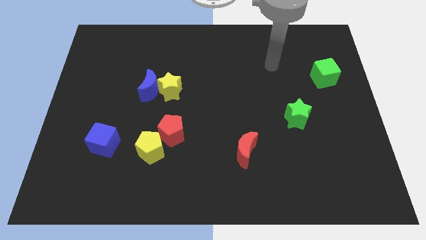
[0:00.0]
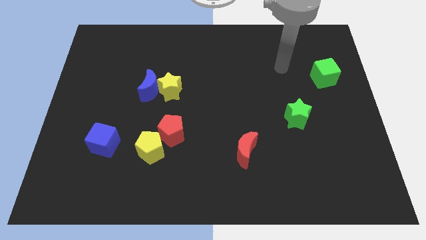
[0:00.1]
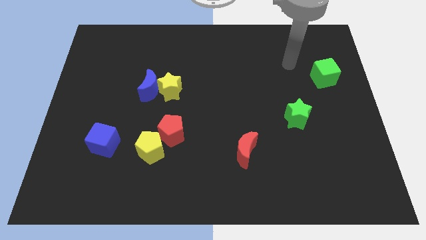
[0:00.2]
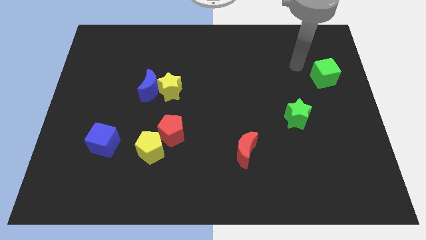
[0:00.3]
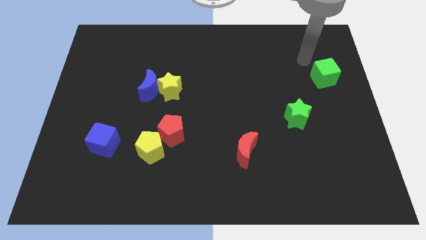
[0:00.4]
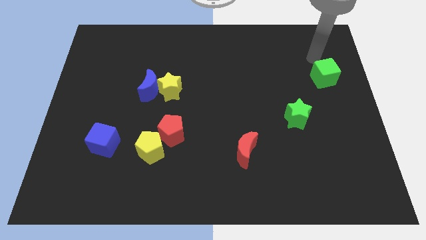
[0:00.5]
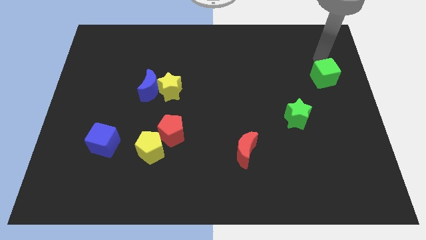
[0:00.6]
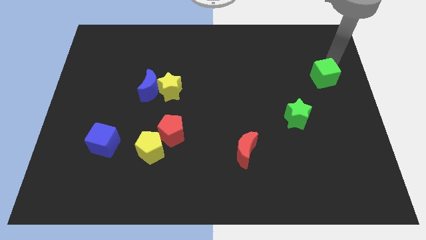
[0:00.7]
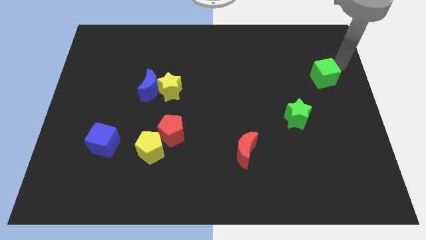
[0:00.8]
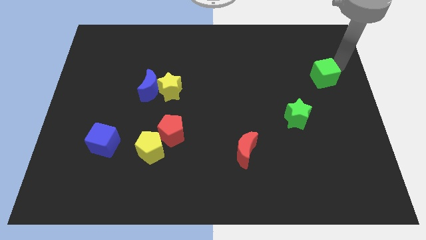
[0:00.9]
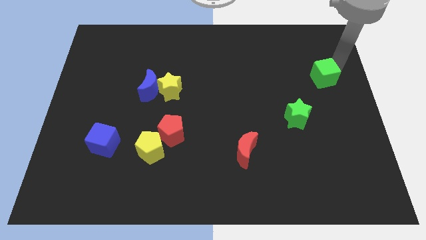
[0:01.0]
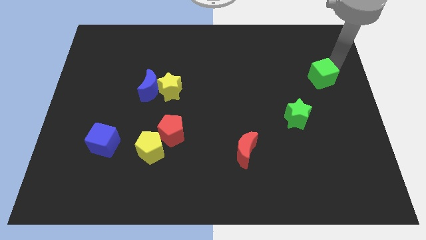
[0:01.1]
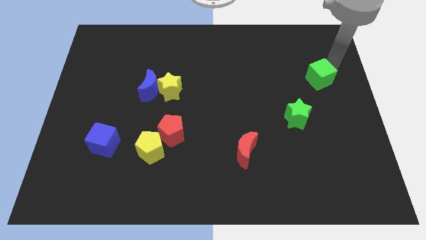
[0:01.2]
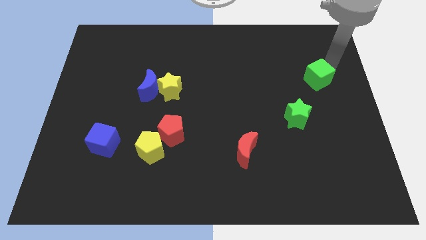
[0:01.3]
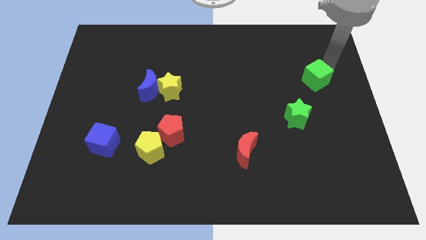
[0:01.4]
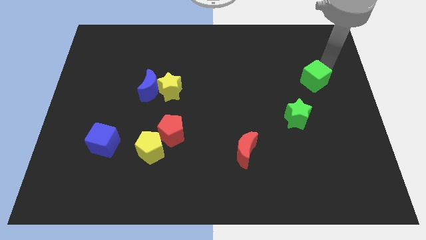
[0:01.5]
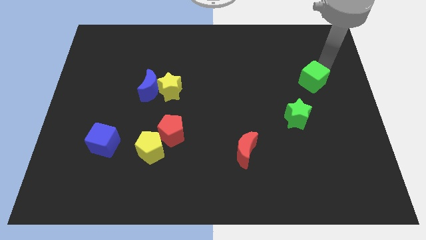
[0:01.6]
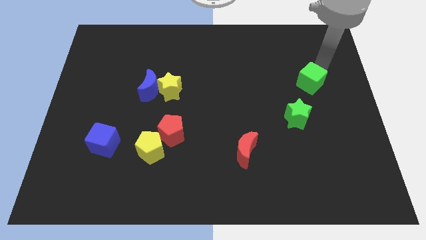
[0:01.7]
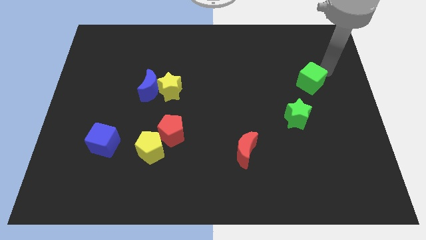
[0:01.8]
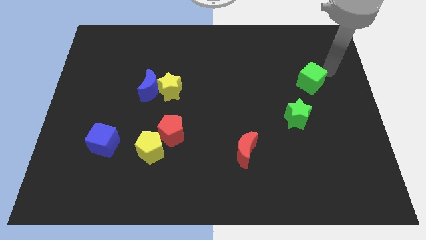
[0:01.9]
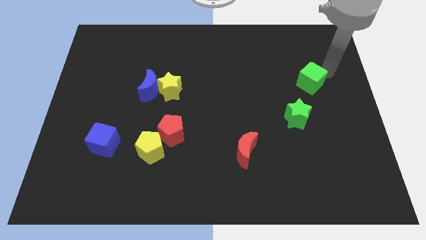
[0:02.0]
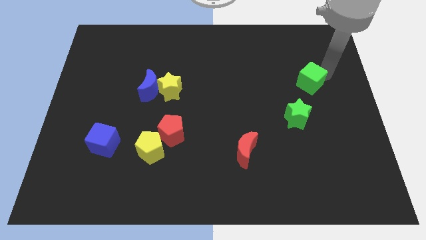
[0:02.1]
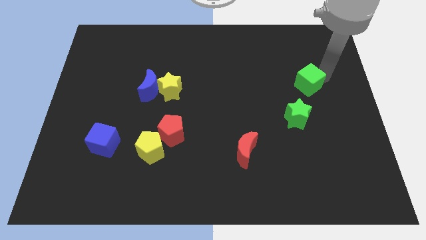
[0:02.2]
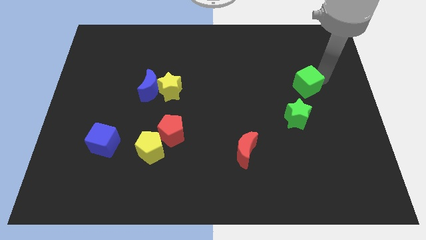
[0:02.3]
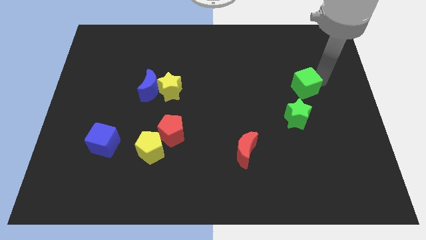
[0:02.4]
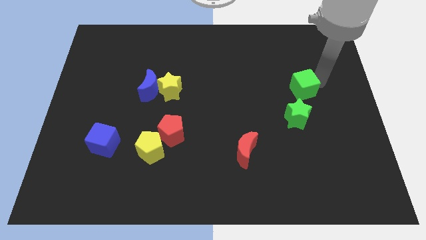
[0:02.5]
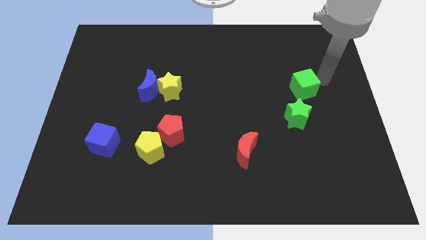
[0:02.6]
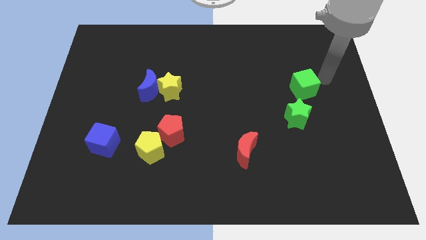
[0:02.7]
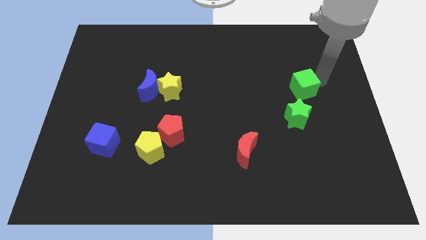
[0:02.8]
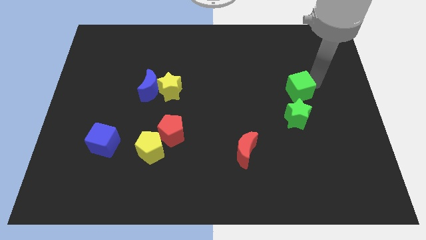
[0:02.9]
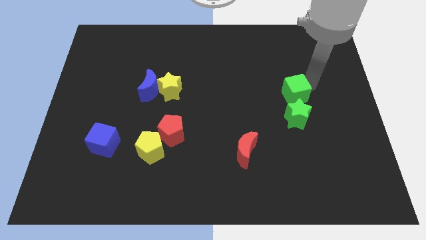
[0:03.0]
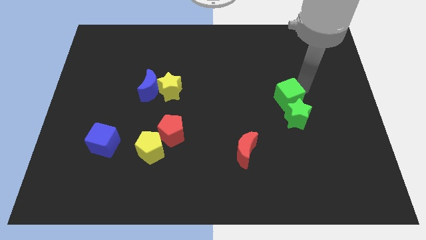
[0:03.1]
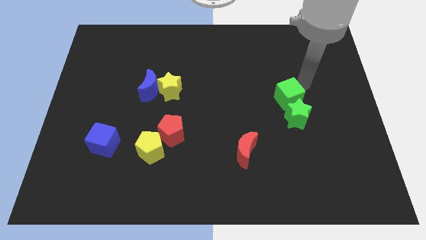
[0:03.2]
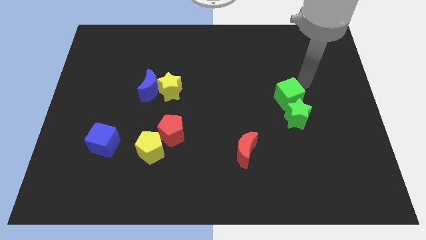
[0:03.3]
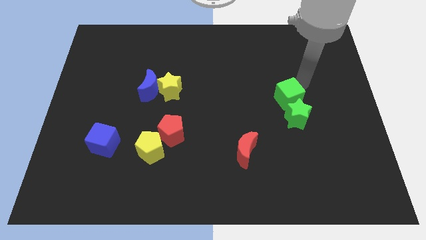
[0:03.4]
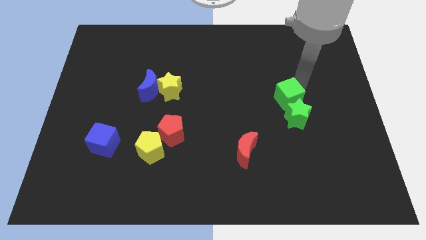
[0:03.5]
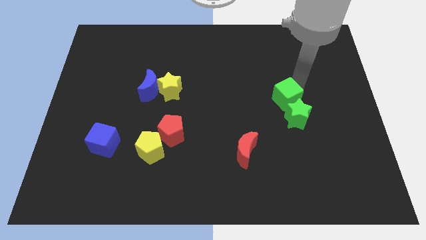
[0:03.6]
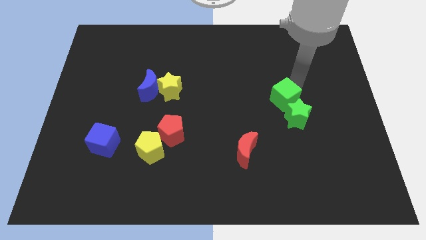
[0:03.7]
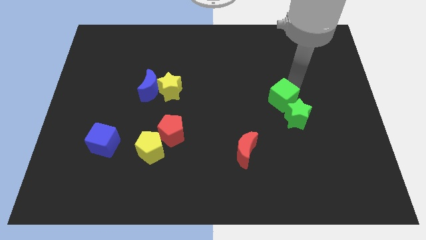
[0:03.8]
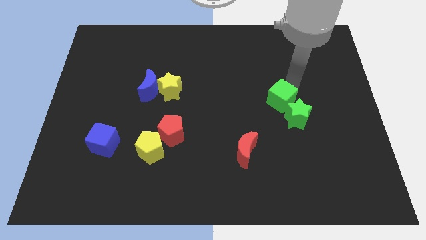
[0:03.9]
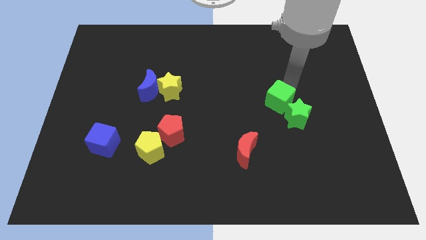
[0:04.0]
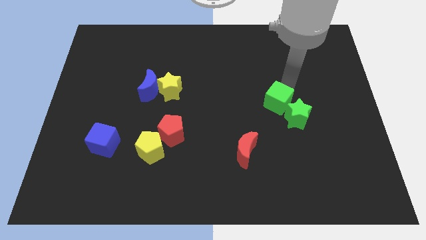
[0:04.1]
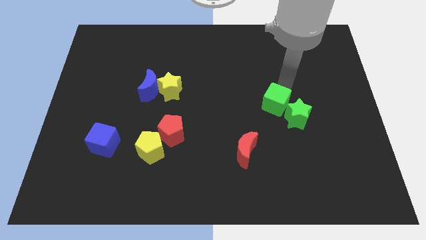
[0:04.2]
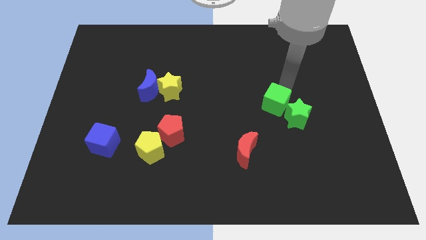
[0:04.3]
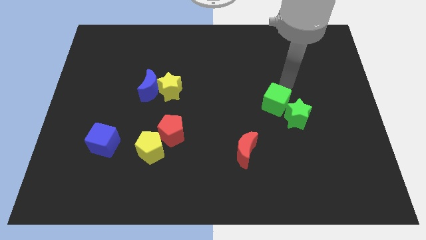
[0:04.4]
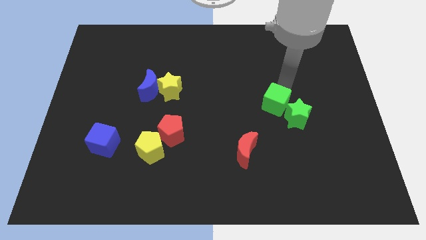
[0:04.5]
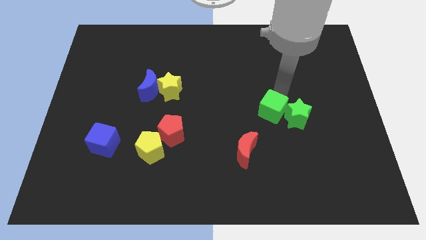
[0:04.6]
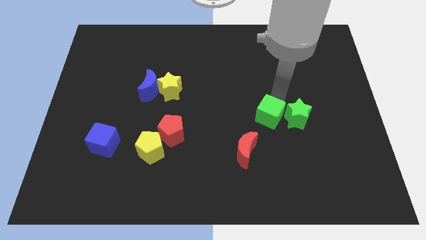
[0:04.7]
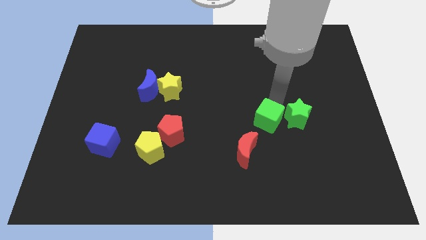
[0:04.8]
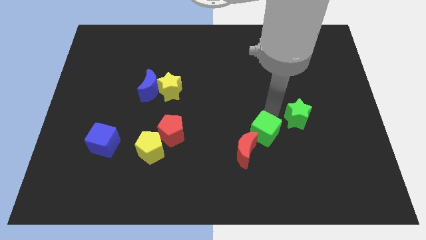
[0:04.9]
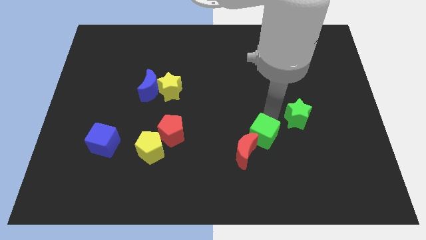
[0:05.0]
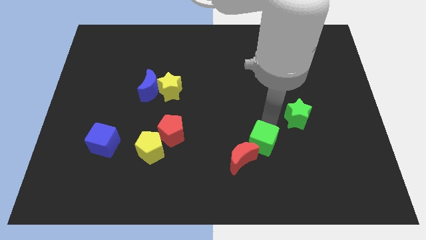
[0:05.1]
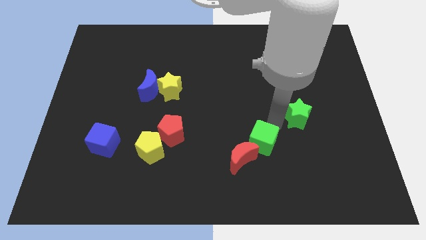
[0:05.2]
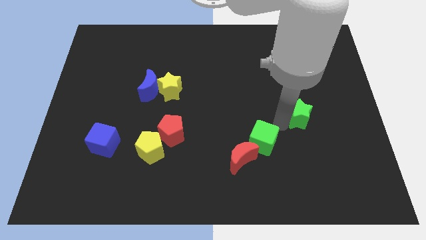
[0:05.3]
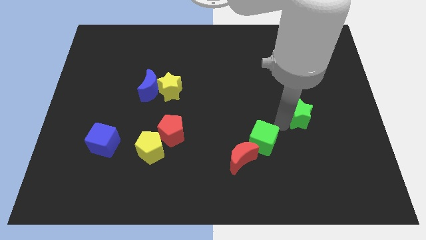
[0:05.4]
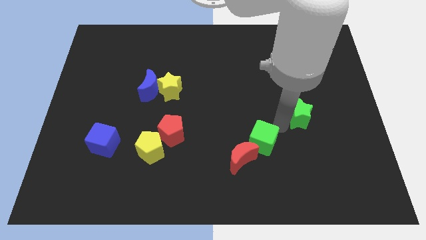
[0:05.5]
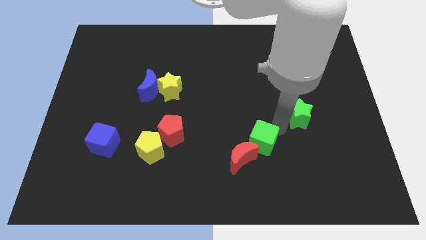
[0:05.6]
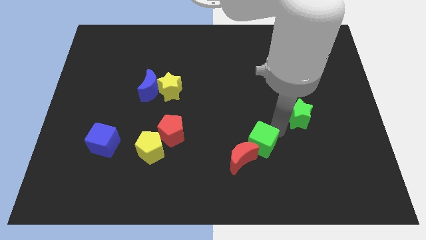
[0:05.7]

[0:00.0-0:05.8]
put the green cube towards the red moon

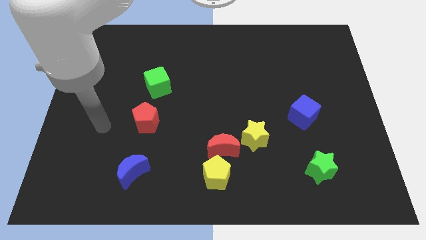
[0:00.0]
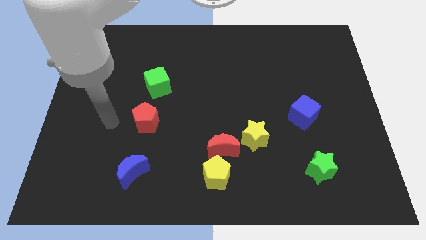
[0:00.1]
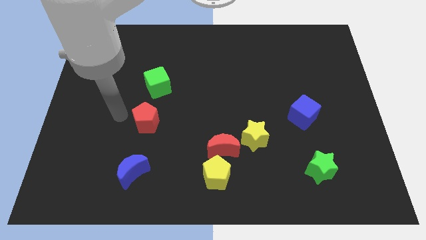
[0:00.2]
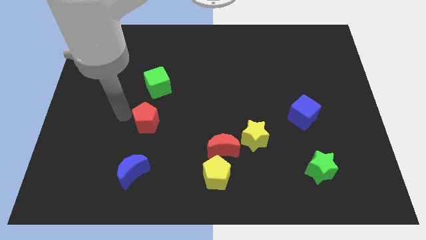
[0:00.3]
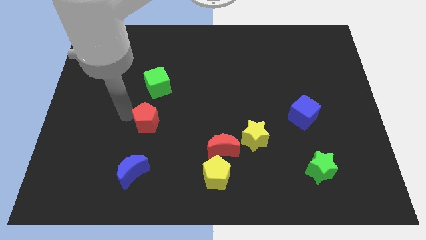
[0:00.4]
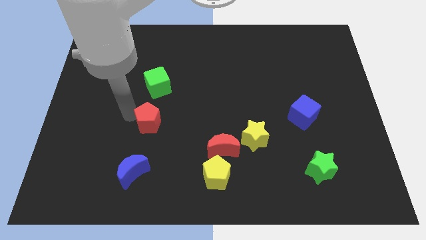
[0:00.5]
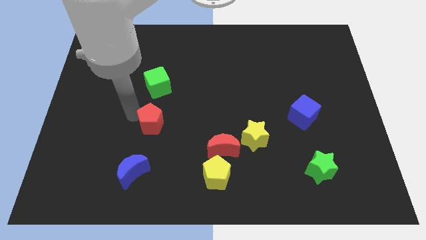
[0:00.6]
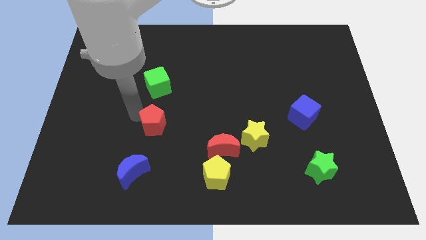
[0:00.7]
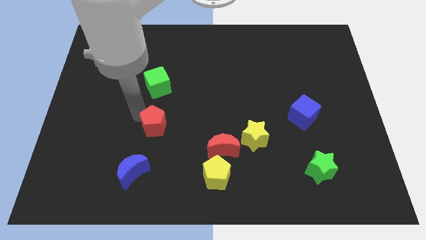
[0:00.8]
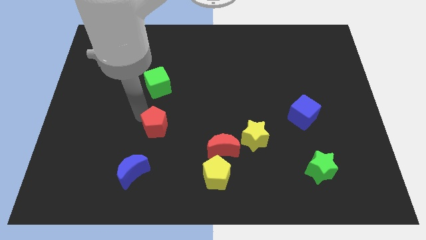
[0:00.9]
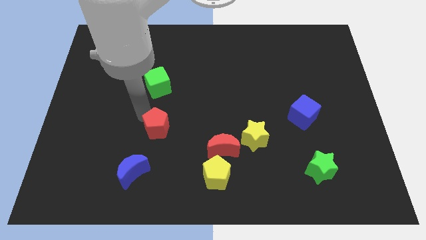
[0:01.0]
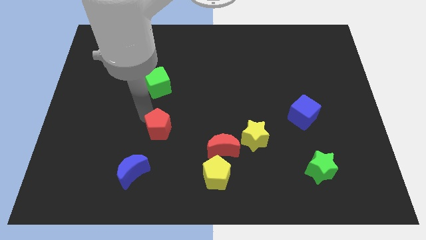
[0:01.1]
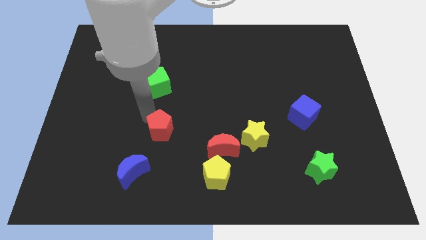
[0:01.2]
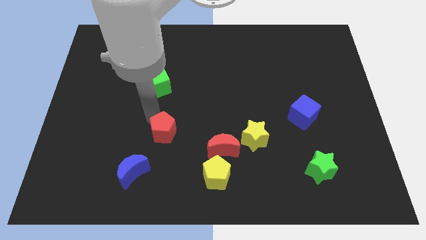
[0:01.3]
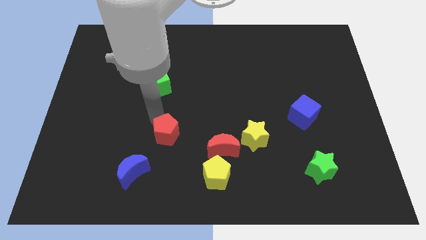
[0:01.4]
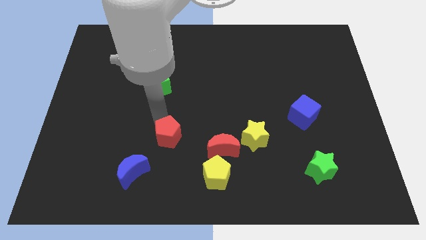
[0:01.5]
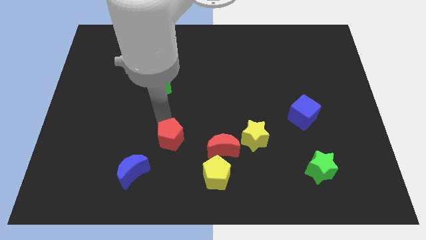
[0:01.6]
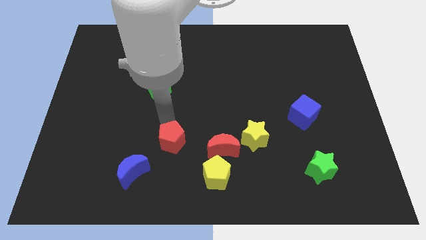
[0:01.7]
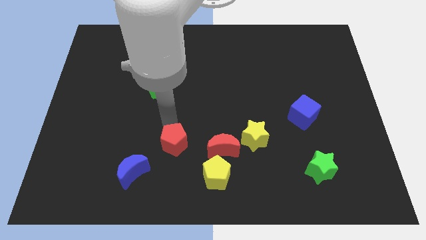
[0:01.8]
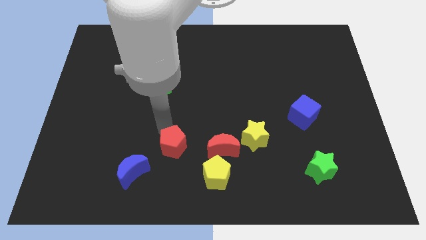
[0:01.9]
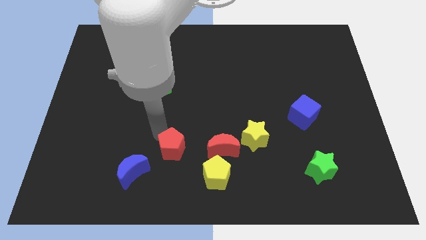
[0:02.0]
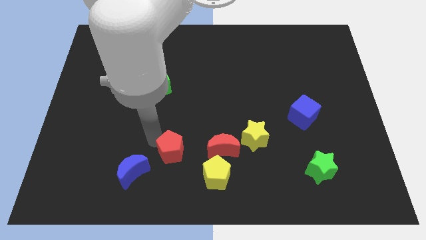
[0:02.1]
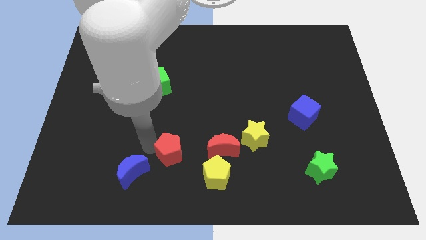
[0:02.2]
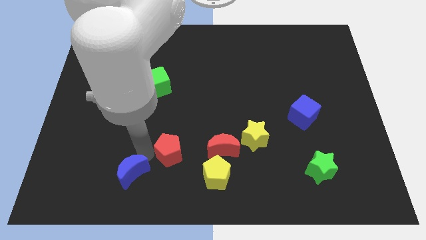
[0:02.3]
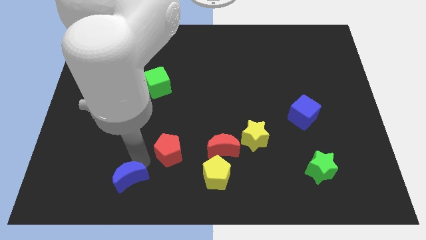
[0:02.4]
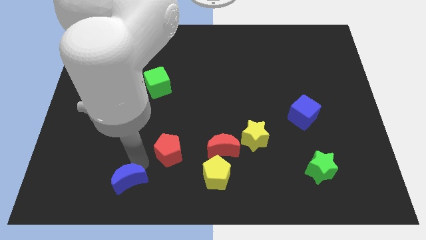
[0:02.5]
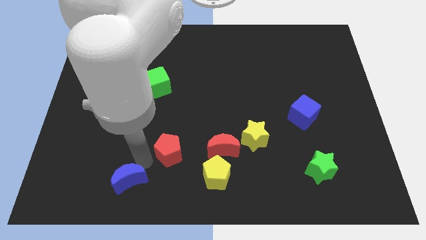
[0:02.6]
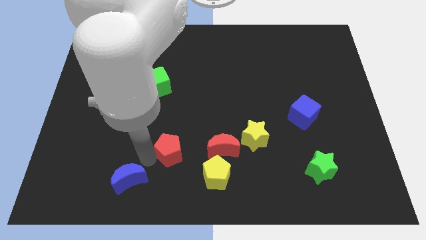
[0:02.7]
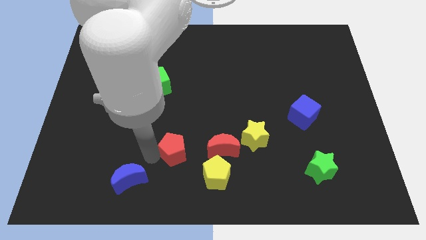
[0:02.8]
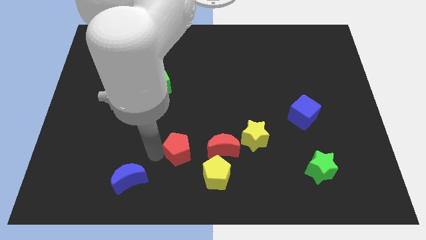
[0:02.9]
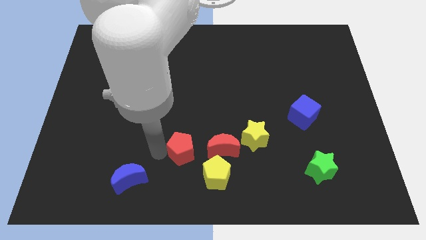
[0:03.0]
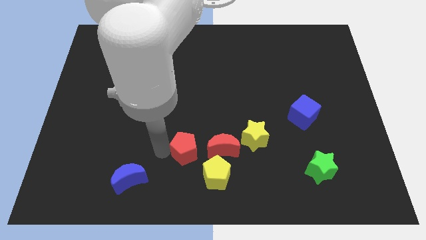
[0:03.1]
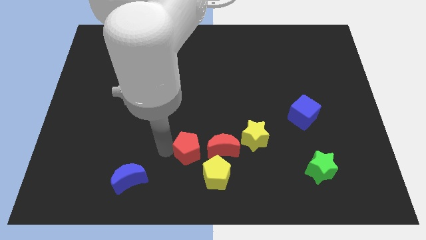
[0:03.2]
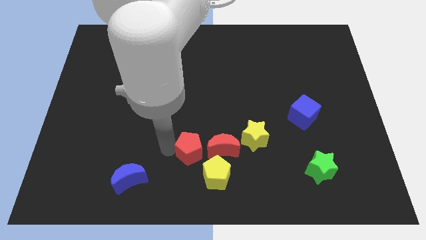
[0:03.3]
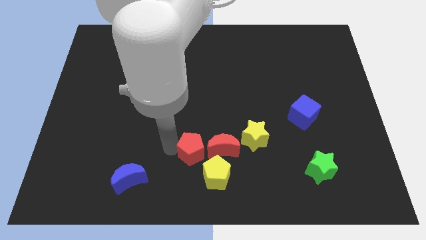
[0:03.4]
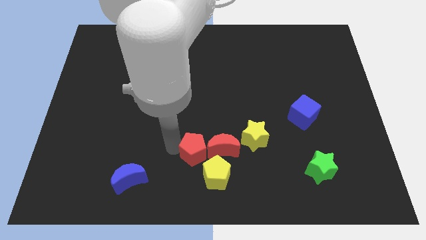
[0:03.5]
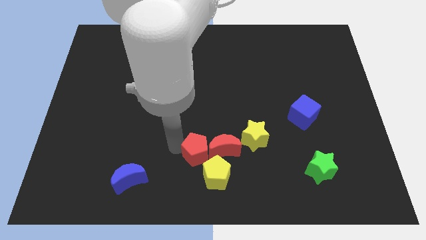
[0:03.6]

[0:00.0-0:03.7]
push the red pentagon towards the red moon
